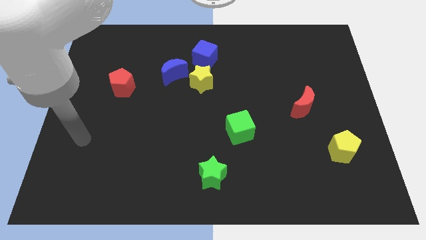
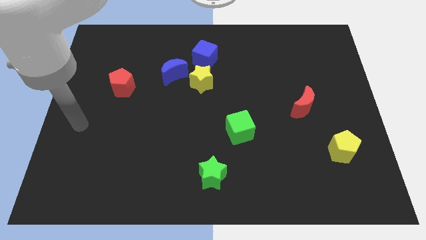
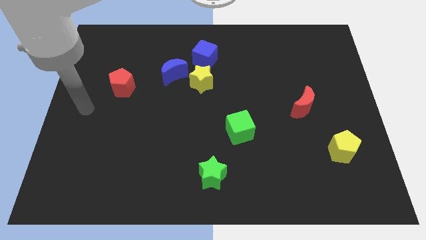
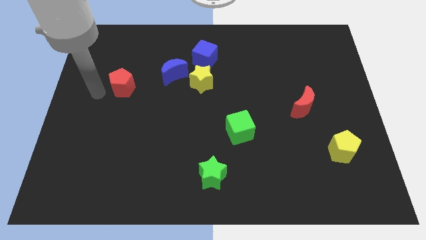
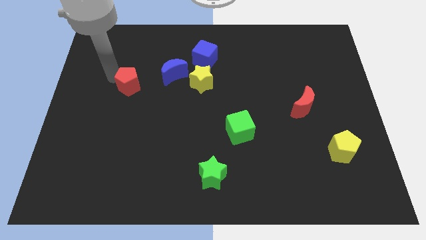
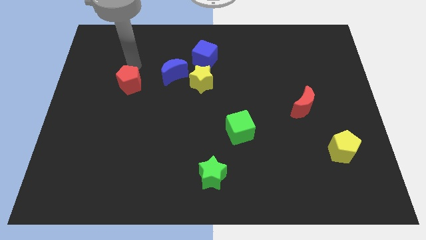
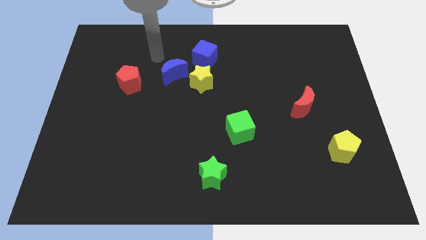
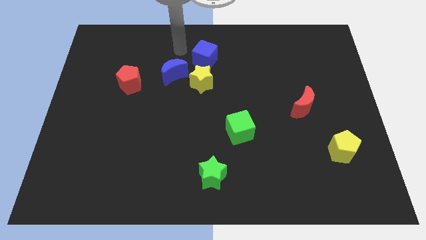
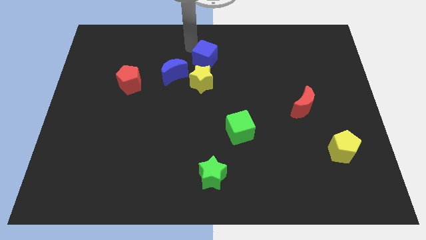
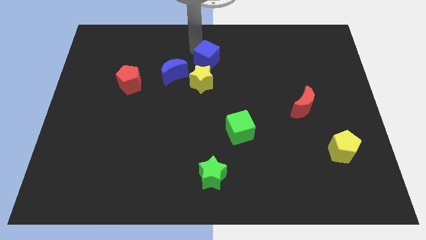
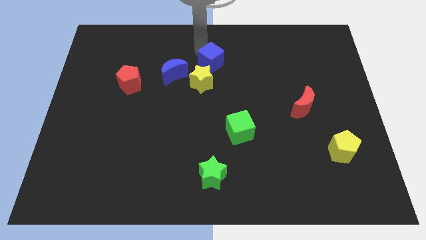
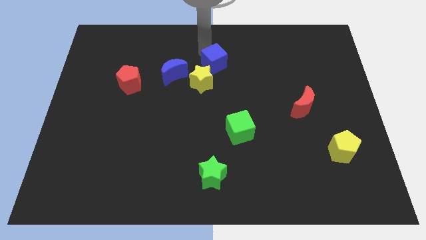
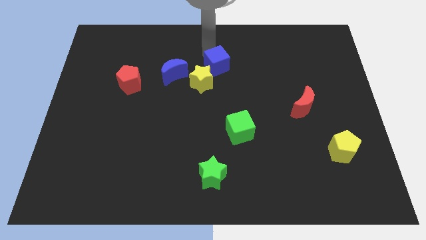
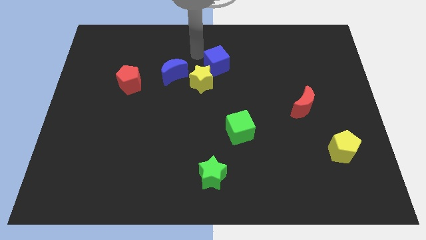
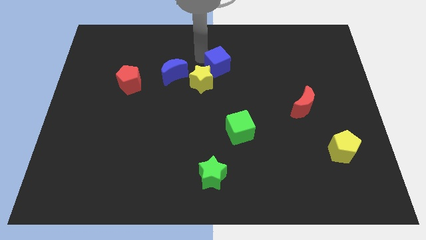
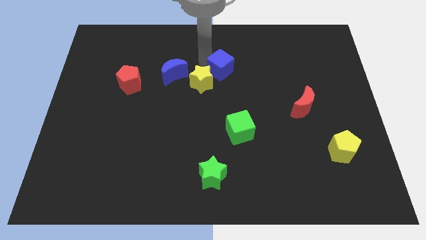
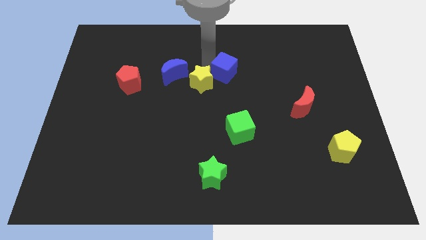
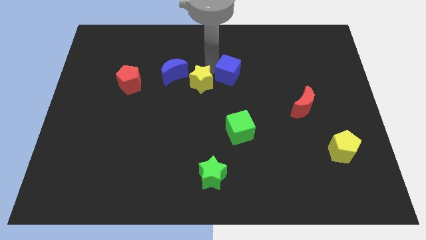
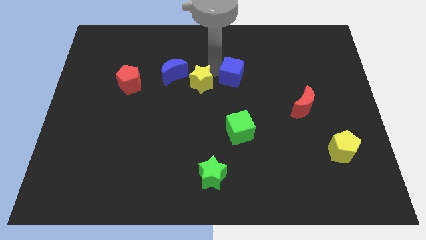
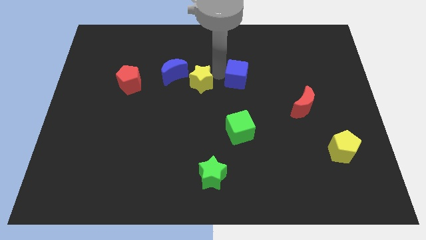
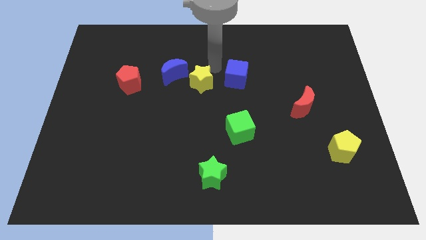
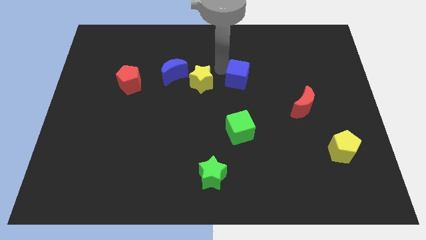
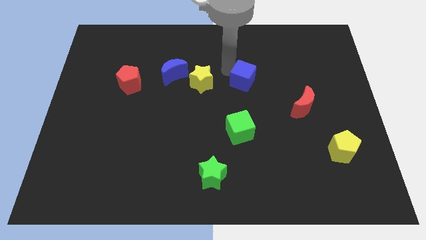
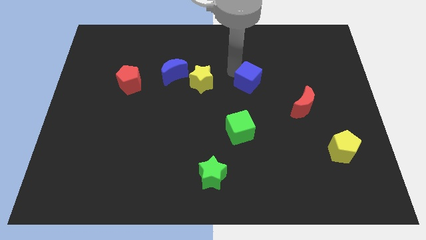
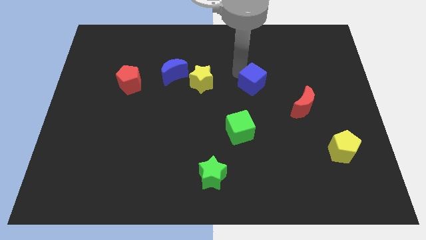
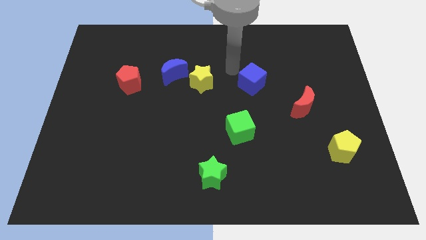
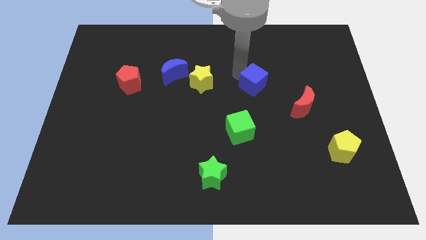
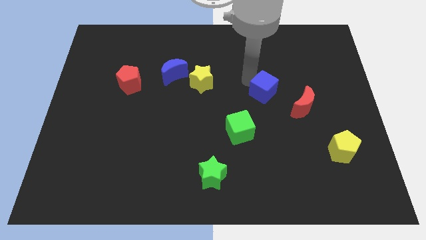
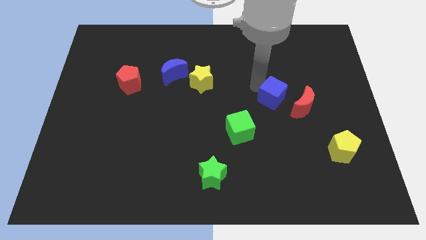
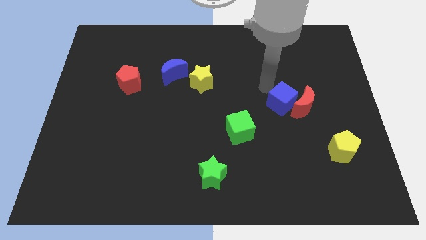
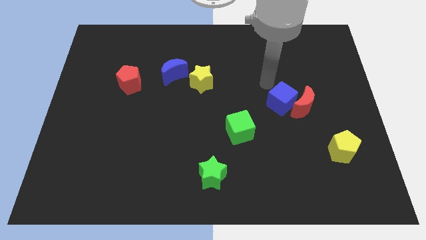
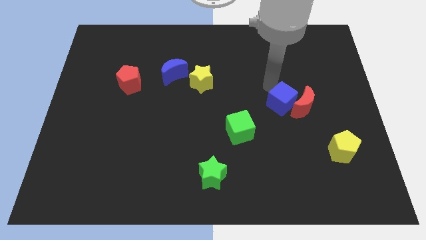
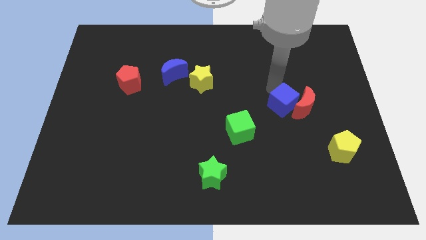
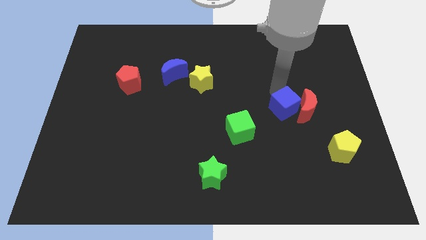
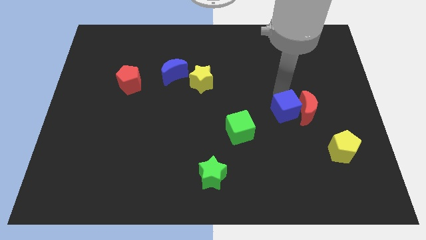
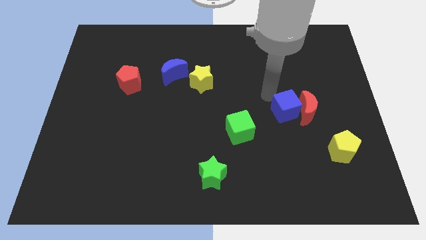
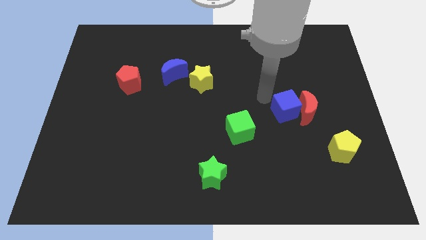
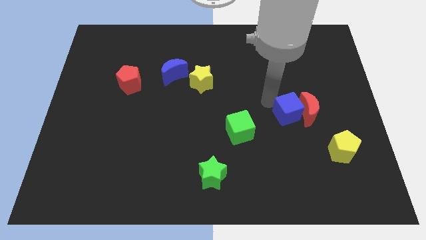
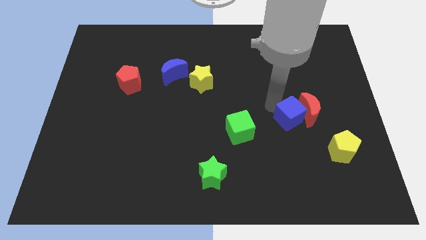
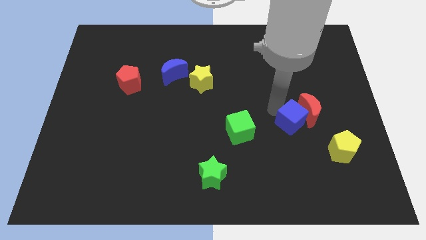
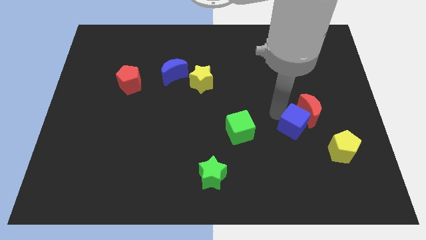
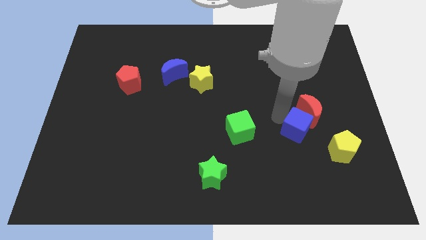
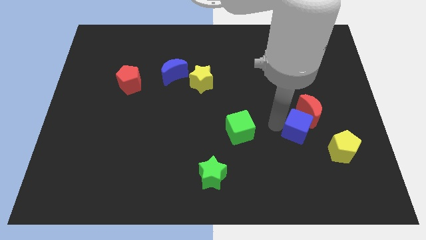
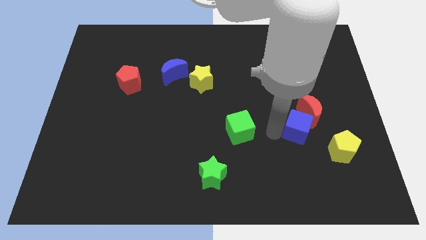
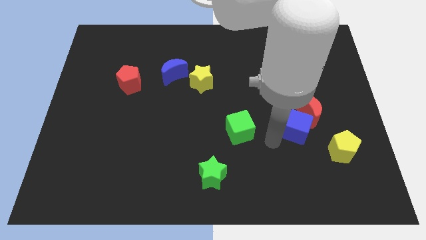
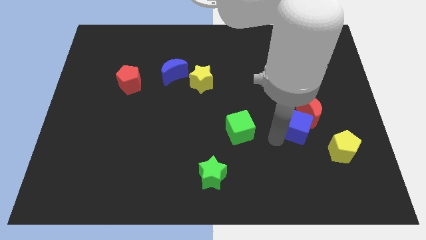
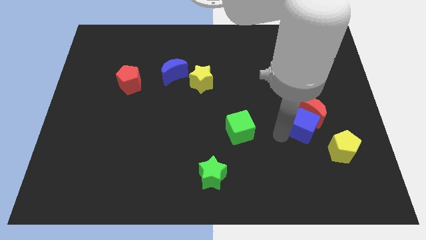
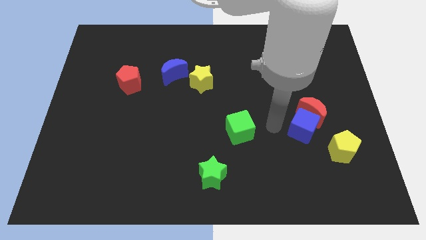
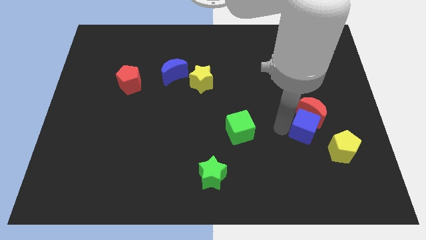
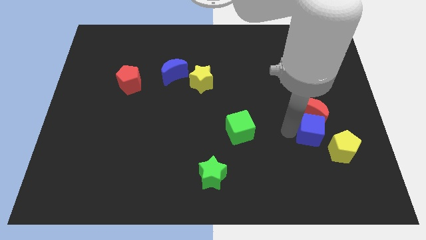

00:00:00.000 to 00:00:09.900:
move the blue cube to the bottom right of the red moon

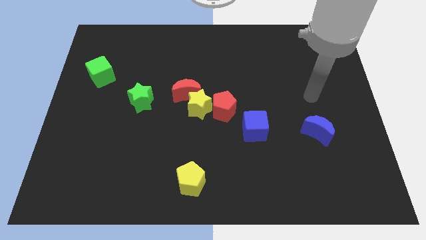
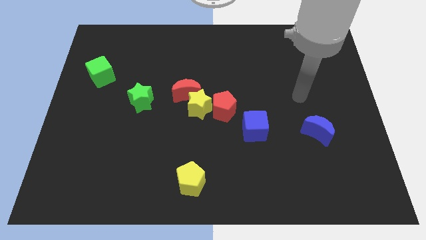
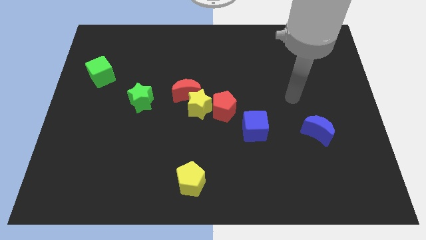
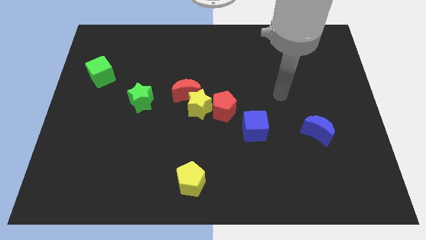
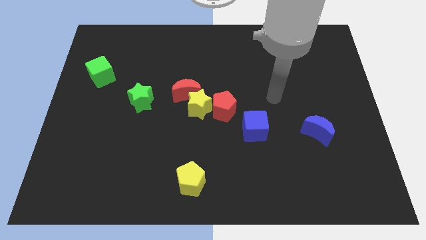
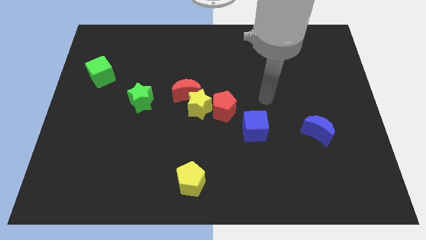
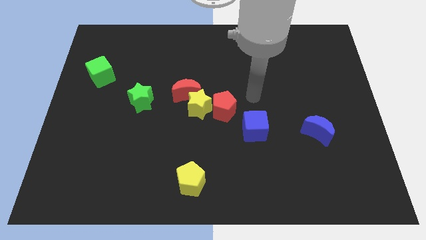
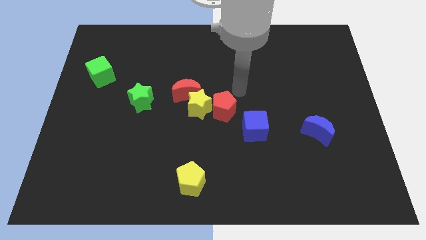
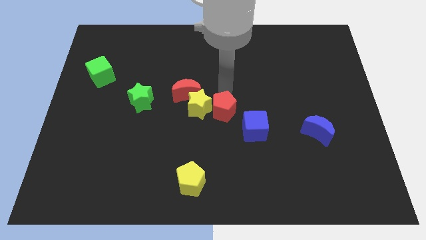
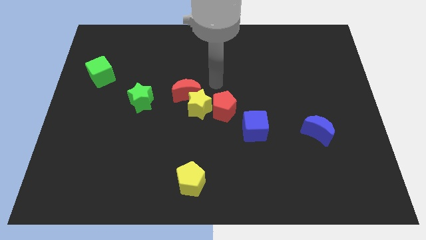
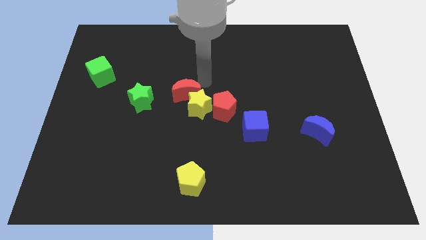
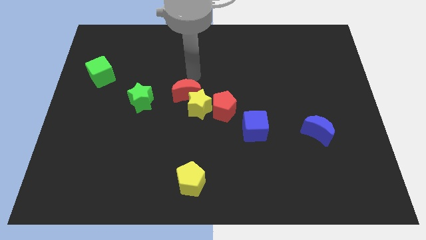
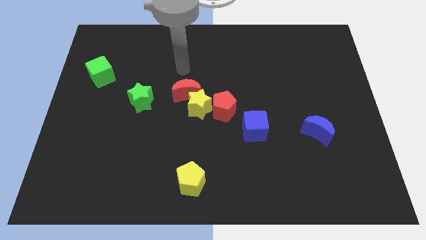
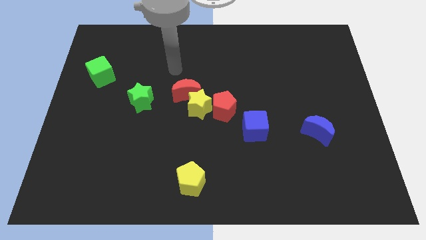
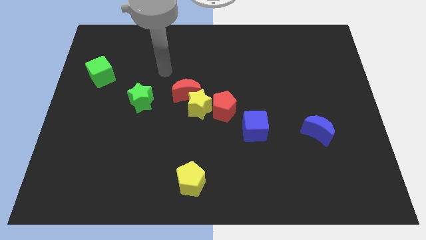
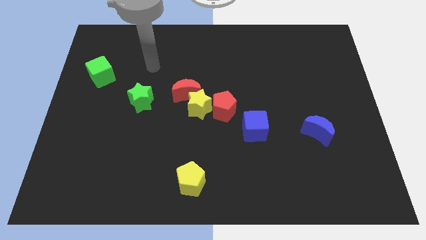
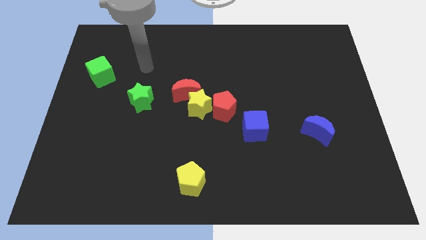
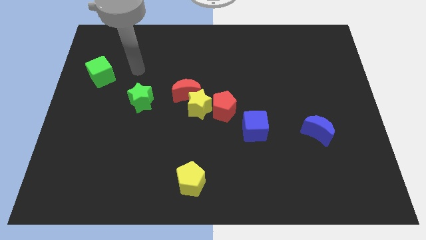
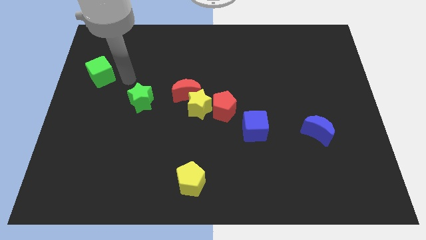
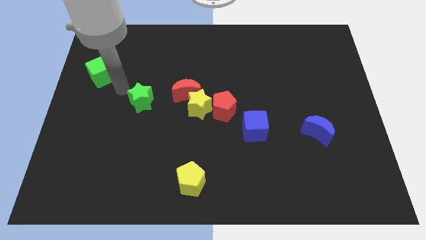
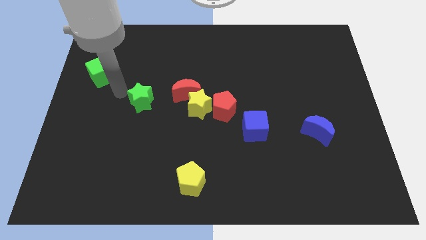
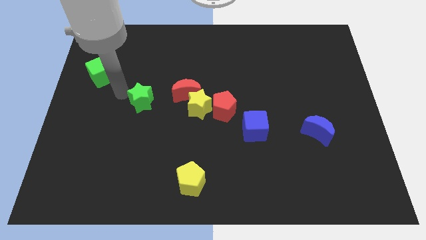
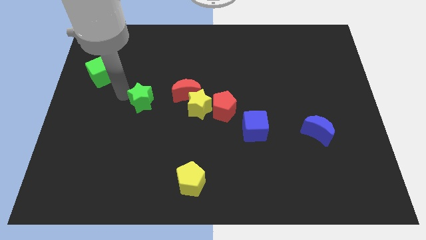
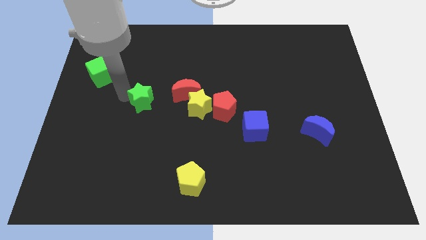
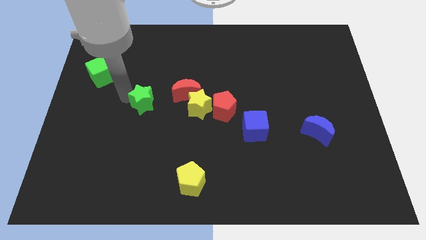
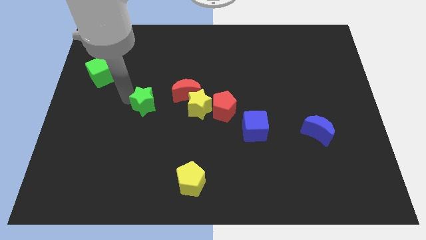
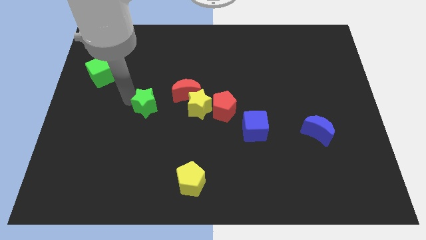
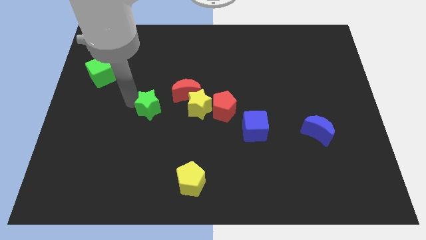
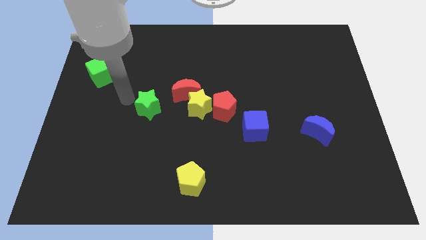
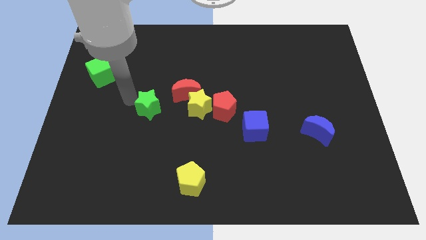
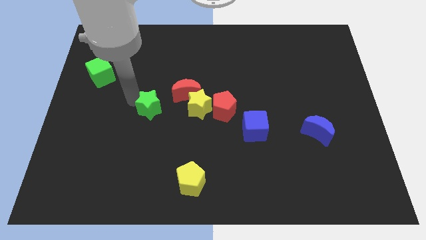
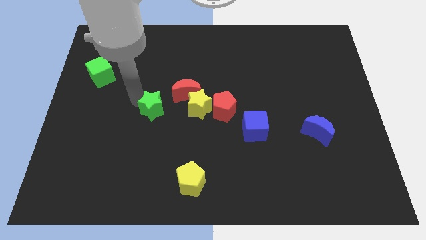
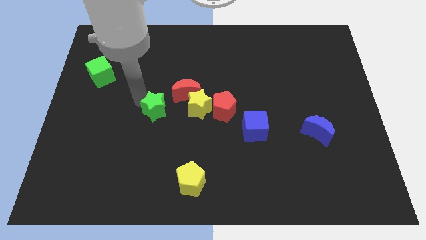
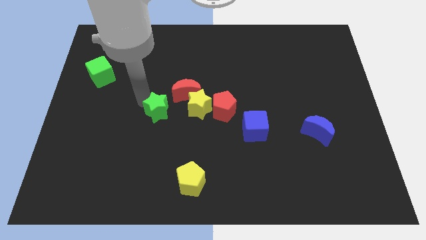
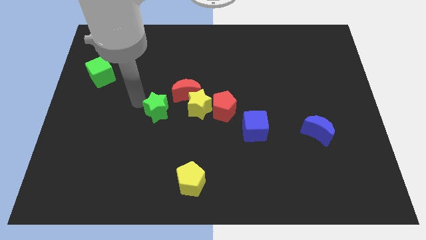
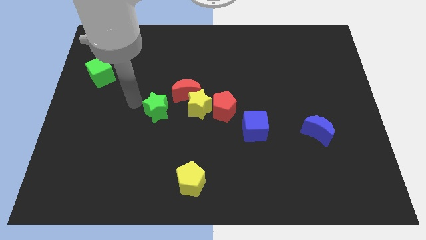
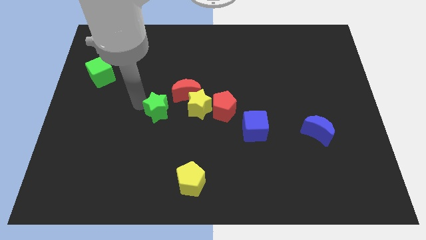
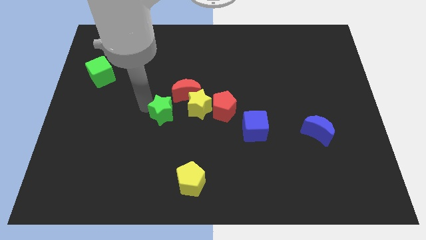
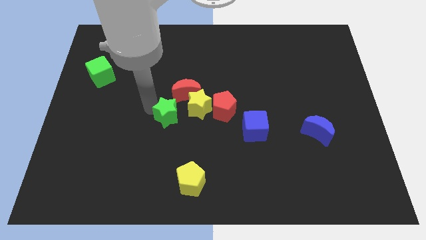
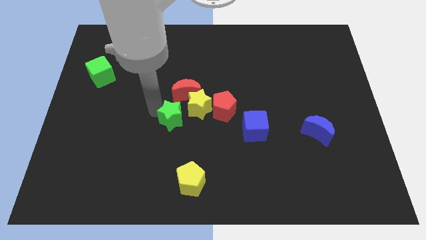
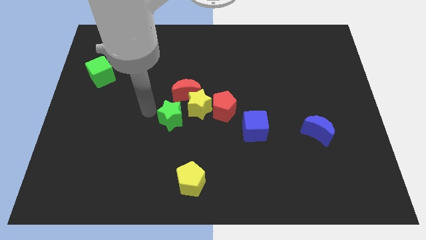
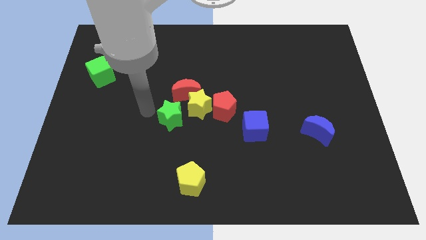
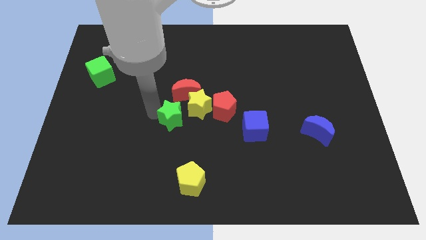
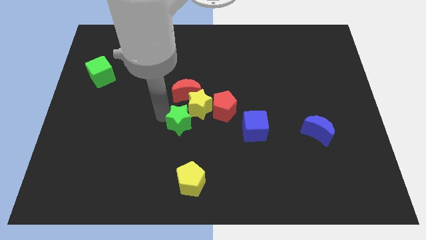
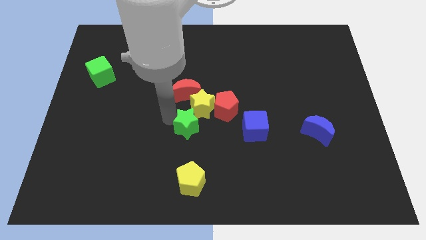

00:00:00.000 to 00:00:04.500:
move the green star to the left of the blue cube
